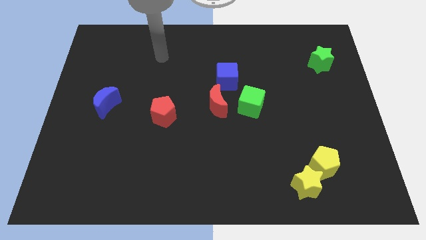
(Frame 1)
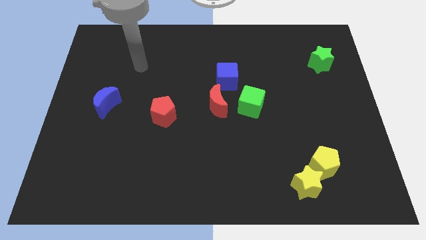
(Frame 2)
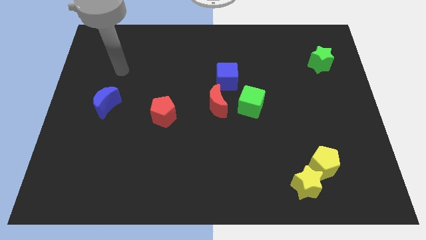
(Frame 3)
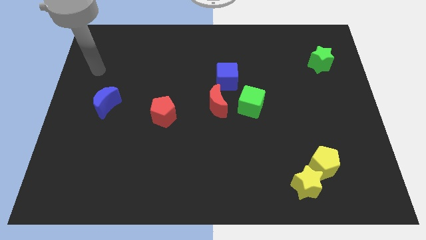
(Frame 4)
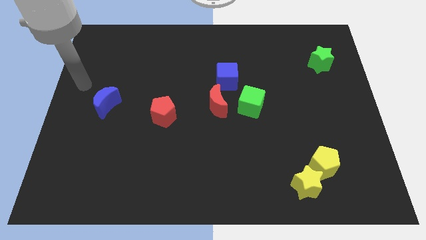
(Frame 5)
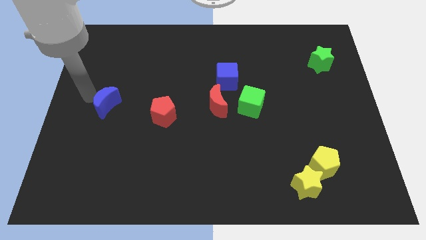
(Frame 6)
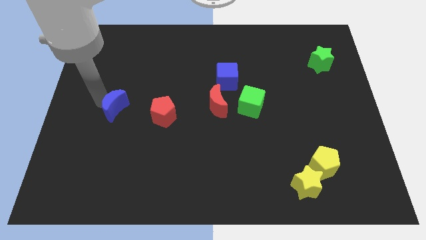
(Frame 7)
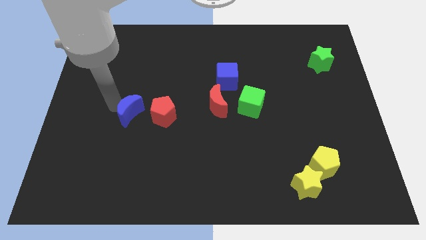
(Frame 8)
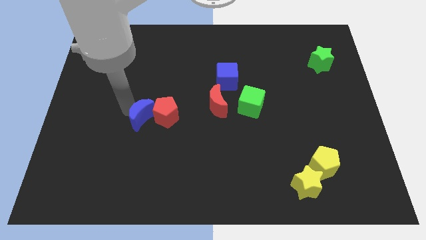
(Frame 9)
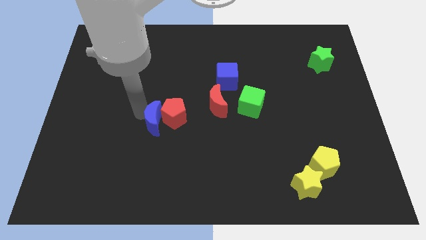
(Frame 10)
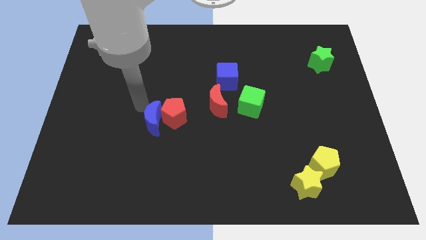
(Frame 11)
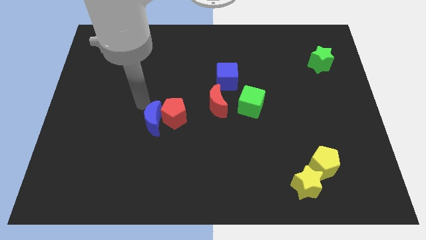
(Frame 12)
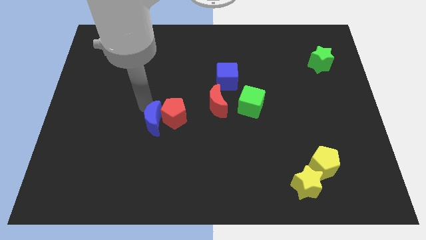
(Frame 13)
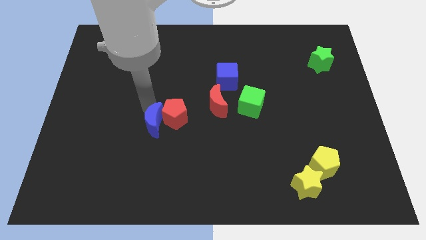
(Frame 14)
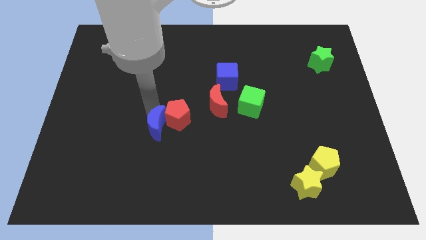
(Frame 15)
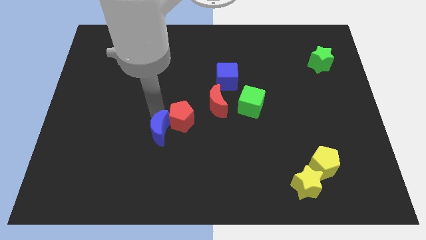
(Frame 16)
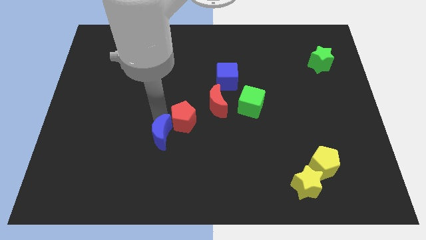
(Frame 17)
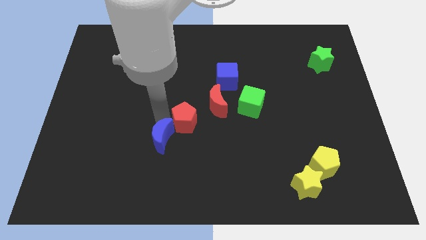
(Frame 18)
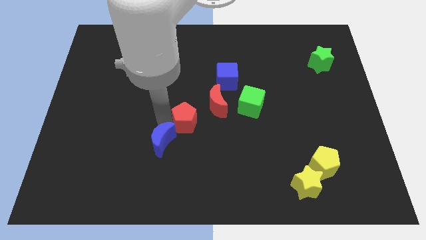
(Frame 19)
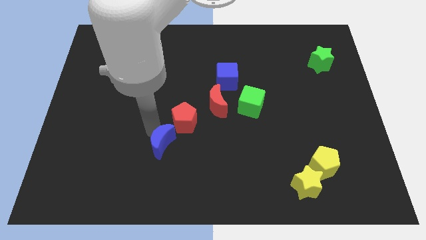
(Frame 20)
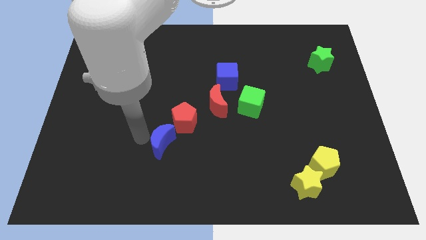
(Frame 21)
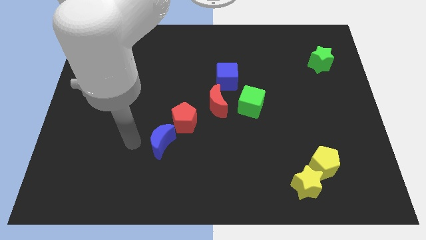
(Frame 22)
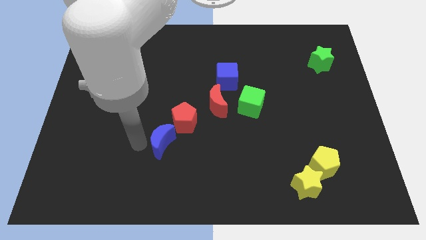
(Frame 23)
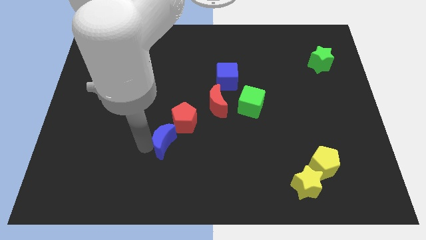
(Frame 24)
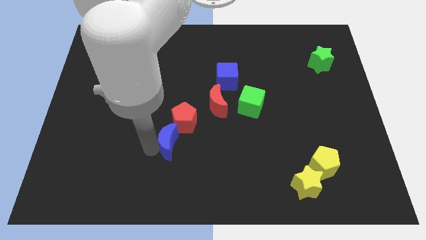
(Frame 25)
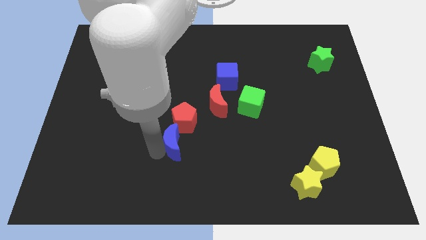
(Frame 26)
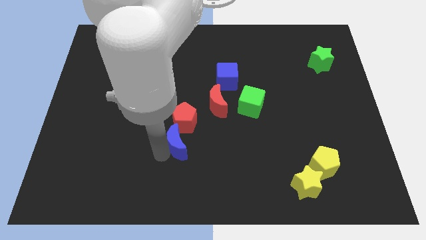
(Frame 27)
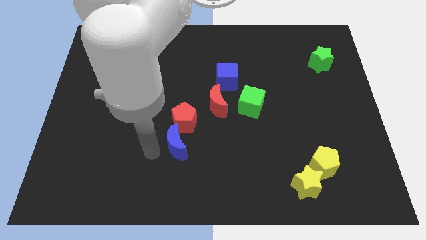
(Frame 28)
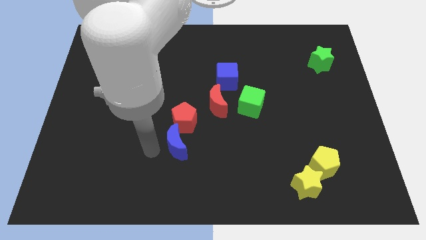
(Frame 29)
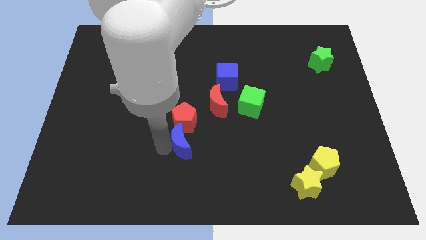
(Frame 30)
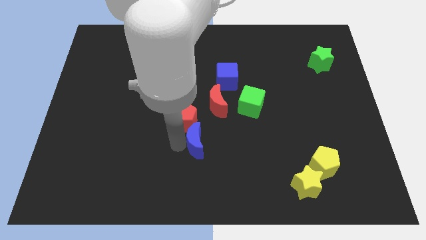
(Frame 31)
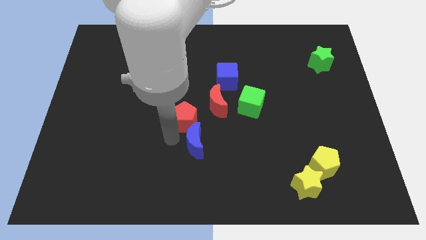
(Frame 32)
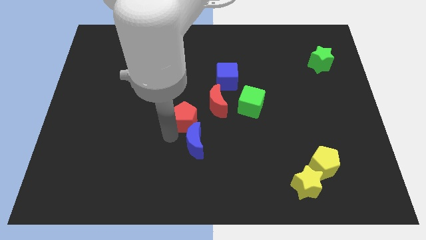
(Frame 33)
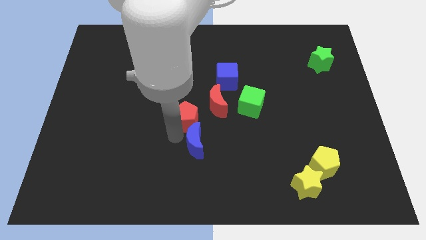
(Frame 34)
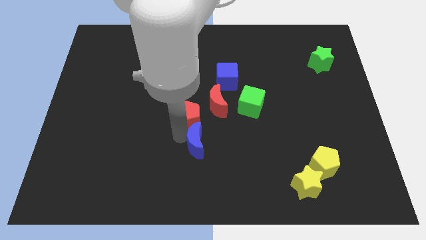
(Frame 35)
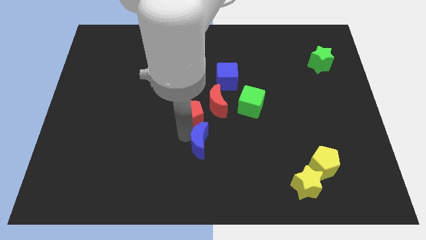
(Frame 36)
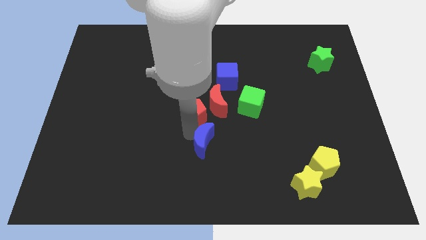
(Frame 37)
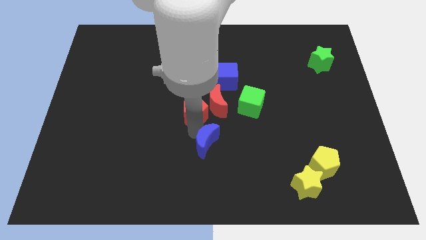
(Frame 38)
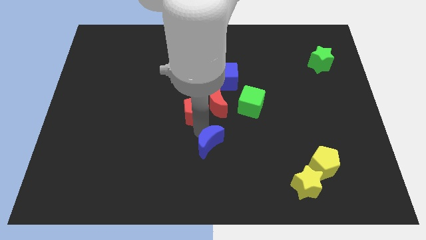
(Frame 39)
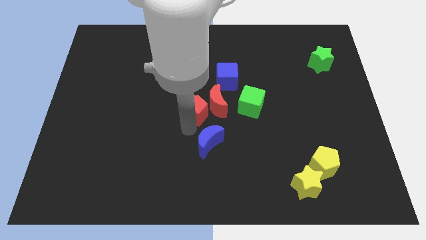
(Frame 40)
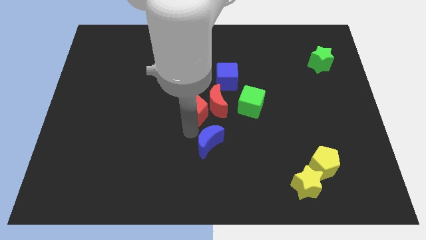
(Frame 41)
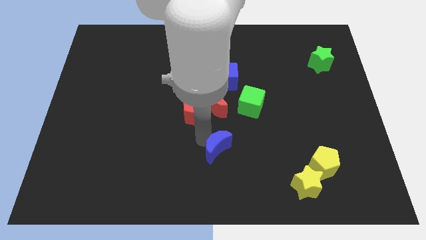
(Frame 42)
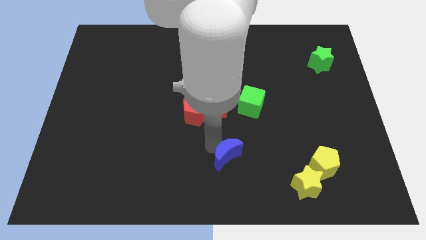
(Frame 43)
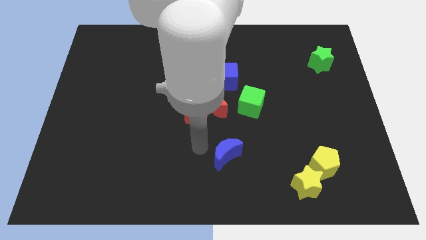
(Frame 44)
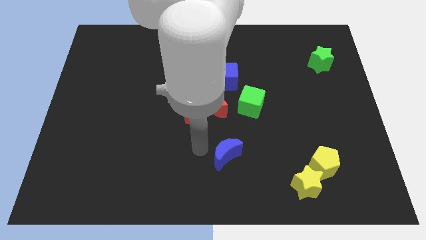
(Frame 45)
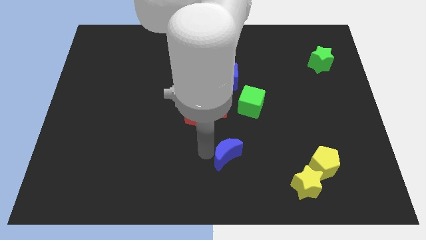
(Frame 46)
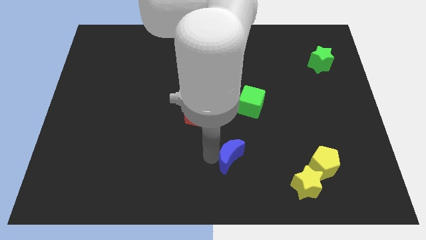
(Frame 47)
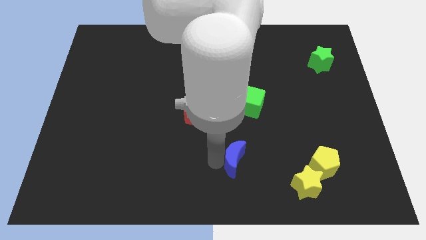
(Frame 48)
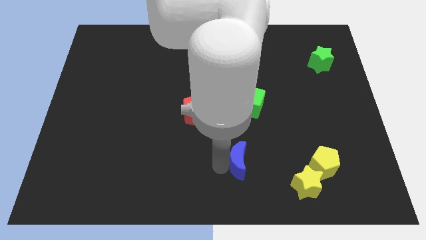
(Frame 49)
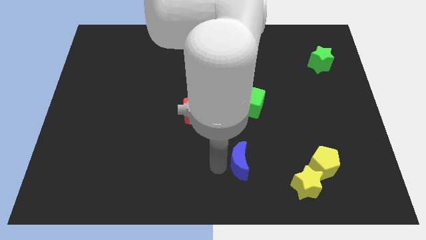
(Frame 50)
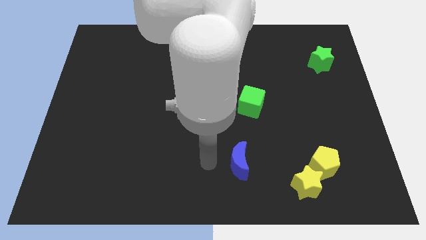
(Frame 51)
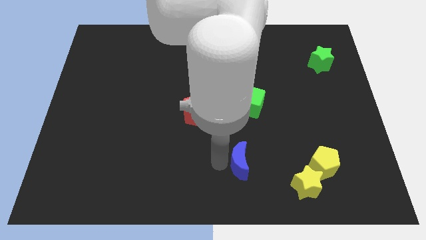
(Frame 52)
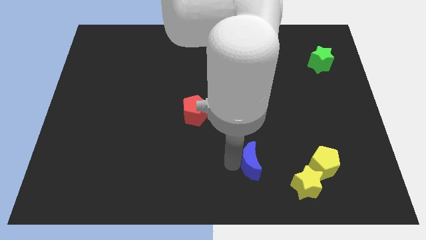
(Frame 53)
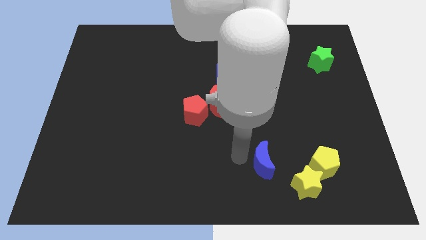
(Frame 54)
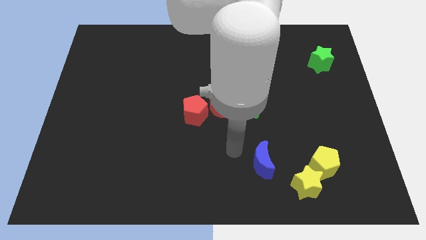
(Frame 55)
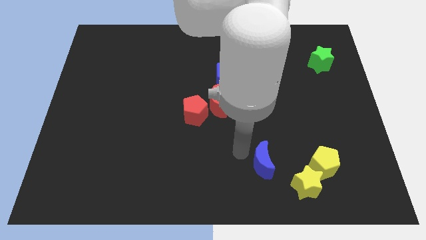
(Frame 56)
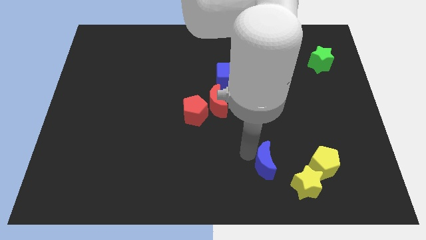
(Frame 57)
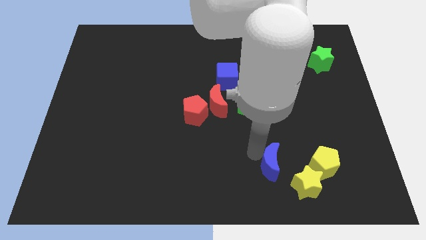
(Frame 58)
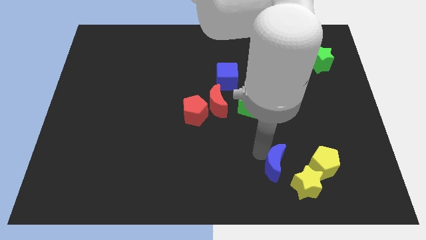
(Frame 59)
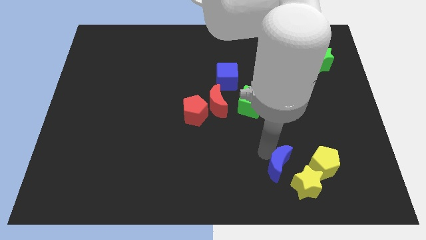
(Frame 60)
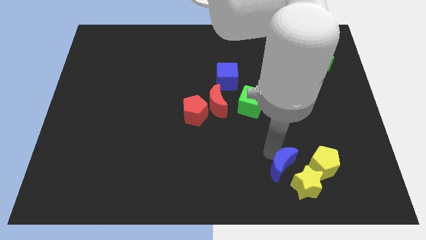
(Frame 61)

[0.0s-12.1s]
move the blue moon next to the yellow star

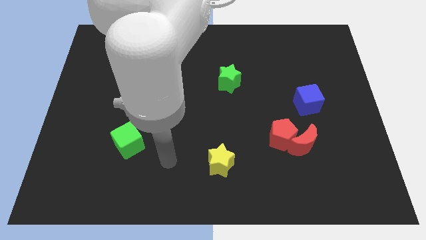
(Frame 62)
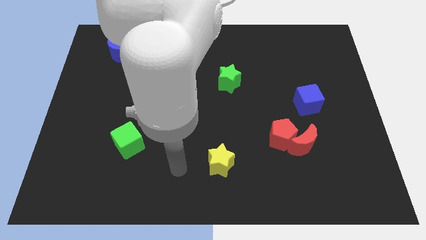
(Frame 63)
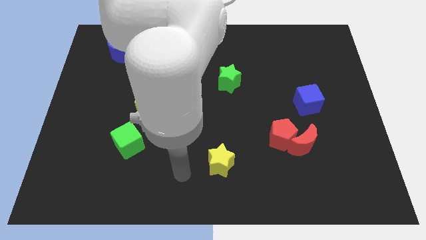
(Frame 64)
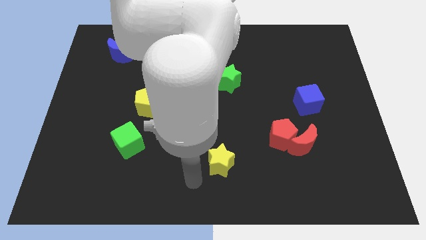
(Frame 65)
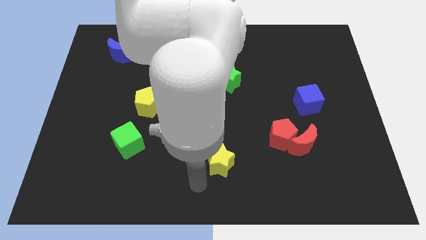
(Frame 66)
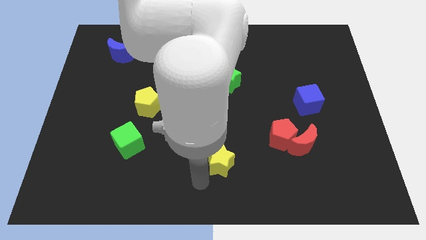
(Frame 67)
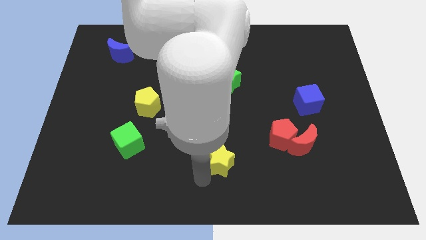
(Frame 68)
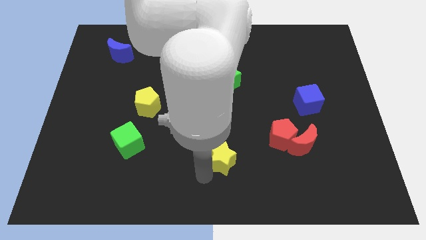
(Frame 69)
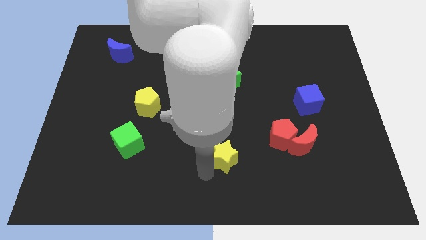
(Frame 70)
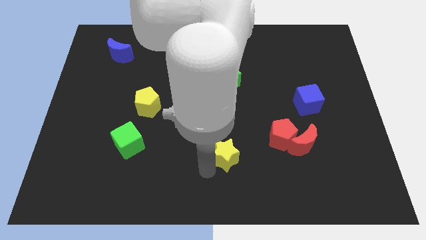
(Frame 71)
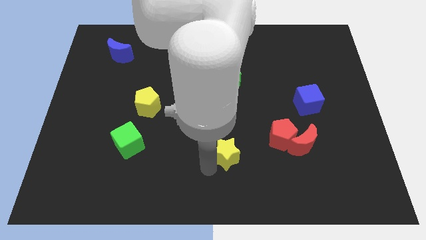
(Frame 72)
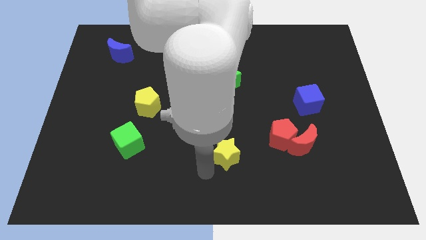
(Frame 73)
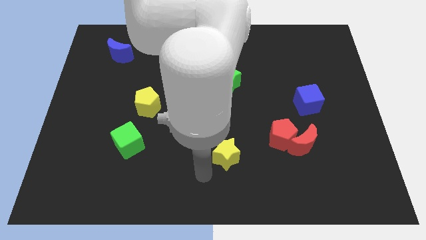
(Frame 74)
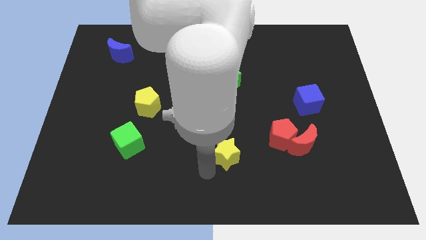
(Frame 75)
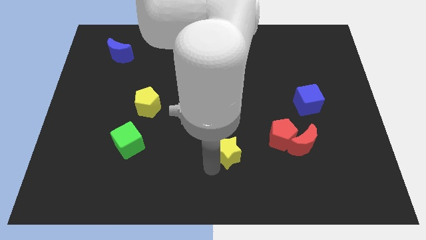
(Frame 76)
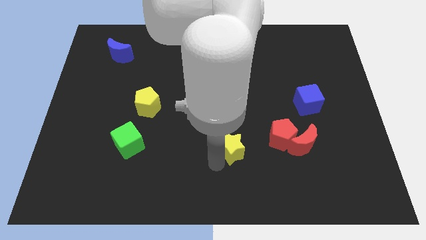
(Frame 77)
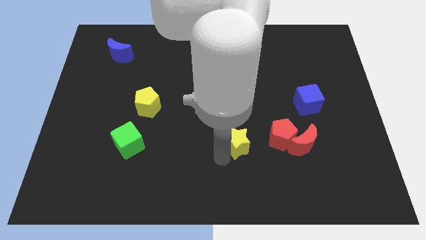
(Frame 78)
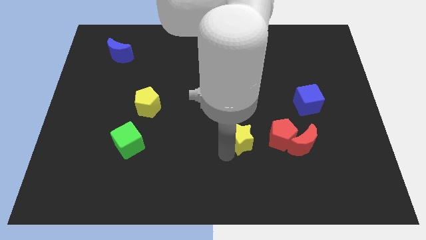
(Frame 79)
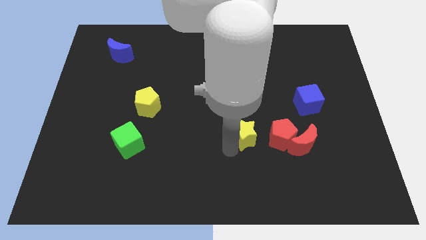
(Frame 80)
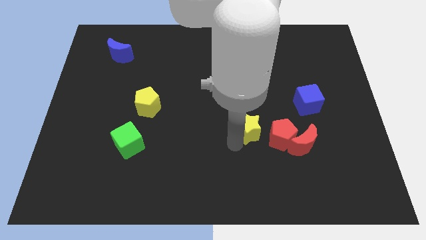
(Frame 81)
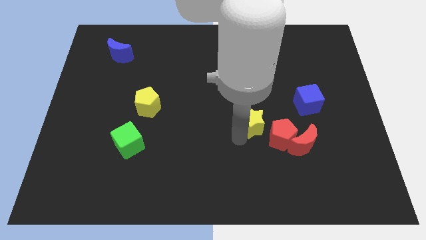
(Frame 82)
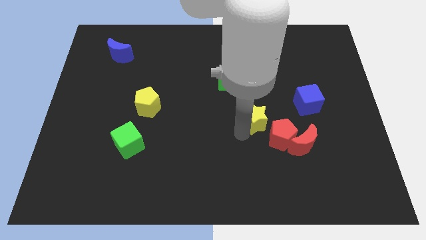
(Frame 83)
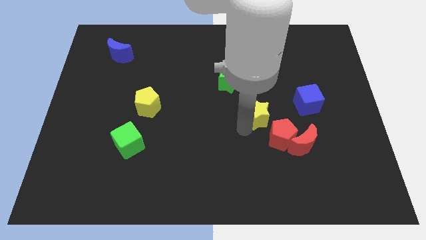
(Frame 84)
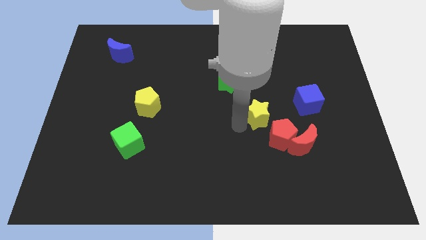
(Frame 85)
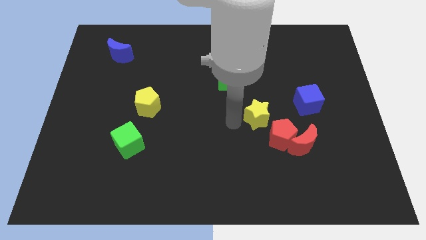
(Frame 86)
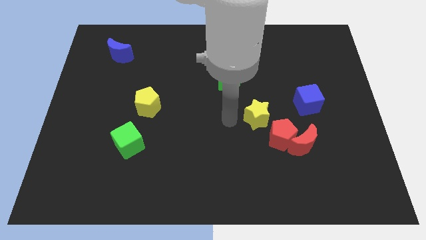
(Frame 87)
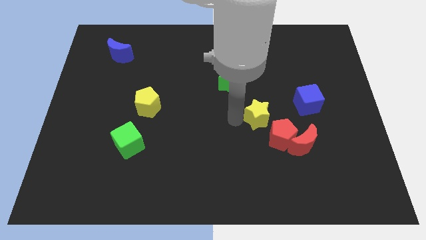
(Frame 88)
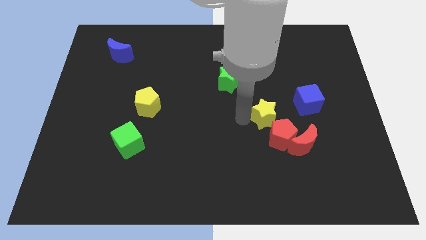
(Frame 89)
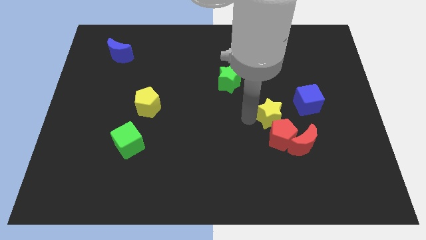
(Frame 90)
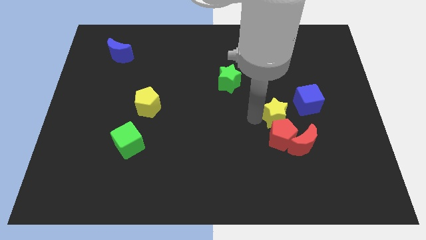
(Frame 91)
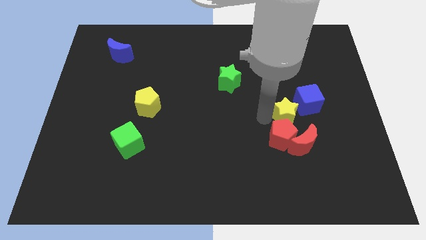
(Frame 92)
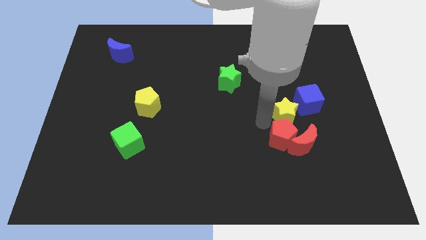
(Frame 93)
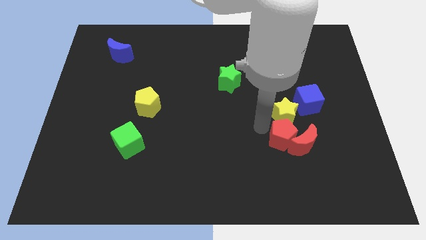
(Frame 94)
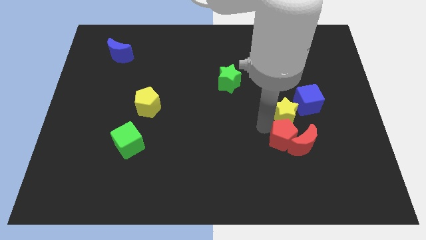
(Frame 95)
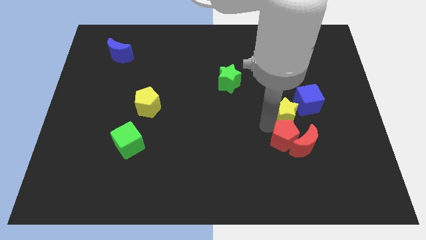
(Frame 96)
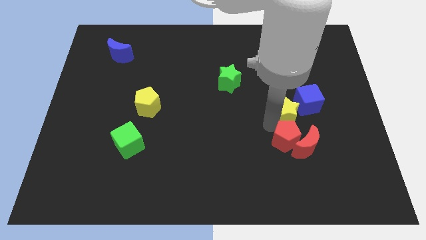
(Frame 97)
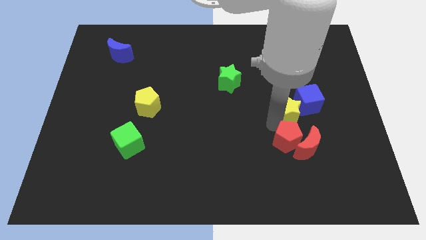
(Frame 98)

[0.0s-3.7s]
slide the yellow star close to the blue cube
